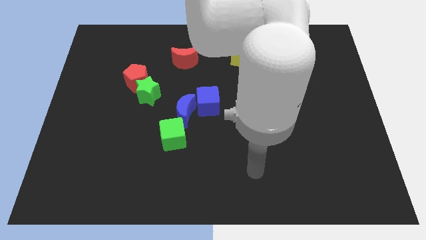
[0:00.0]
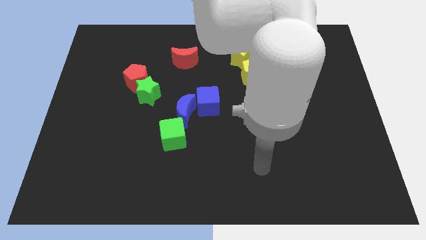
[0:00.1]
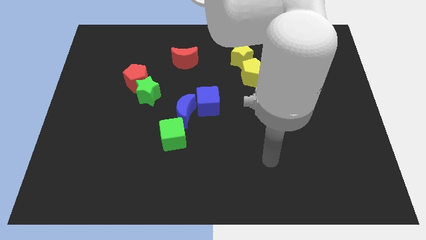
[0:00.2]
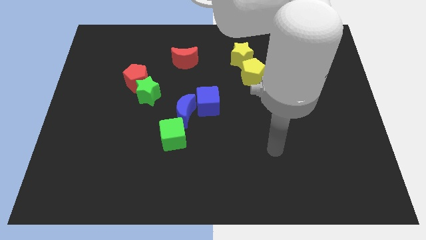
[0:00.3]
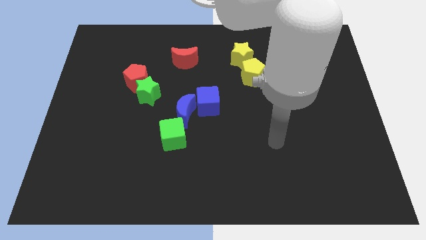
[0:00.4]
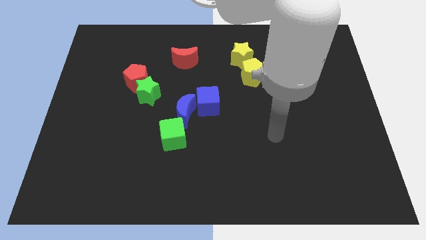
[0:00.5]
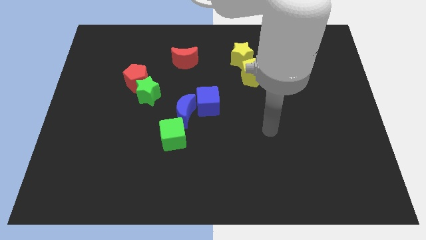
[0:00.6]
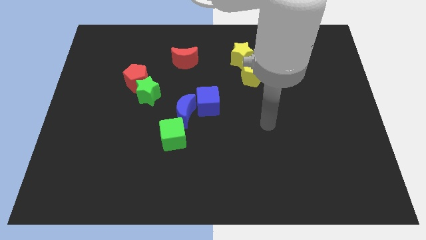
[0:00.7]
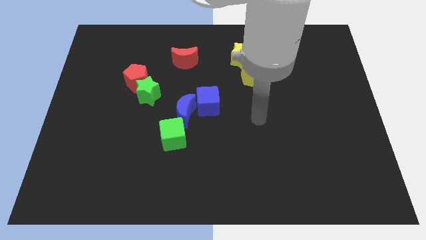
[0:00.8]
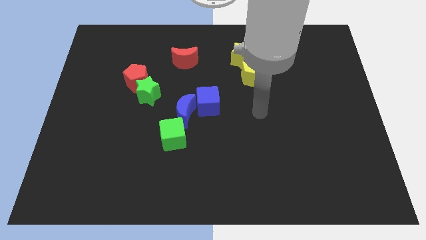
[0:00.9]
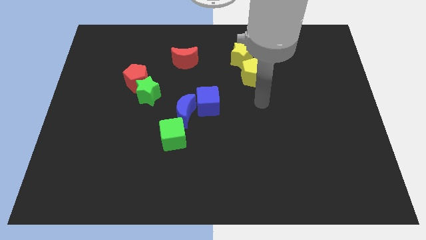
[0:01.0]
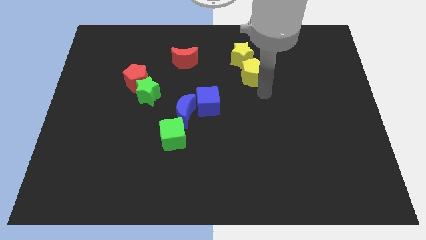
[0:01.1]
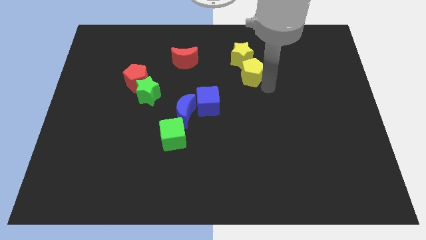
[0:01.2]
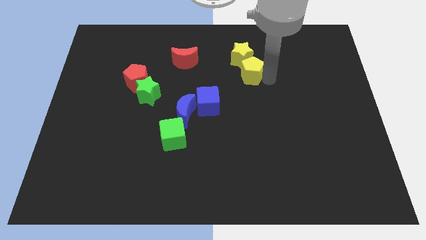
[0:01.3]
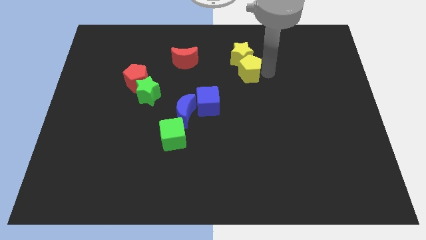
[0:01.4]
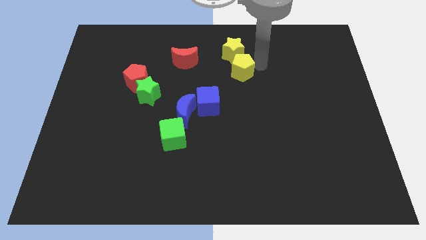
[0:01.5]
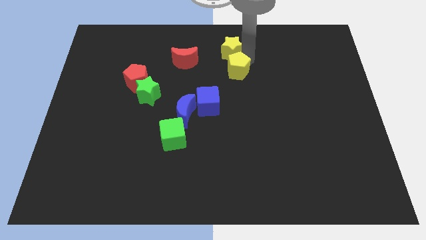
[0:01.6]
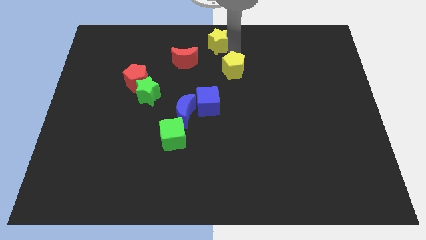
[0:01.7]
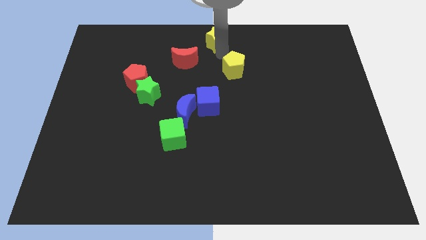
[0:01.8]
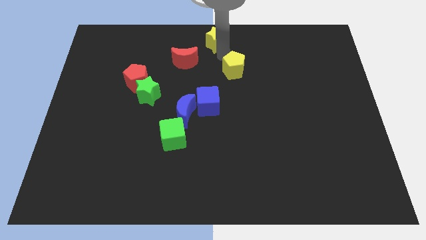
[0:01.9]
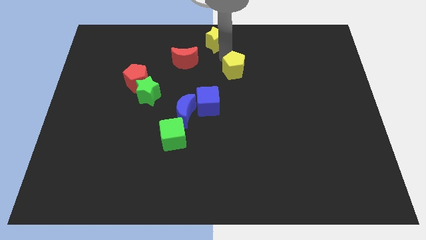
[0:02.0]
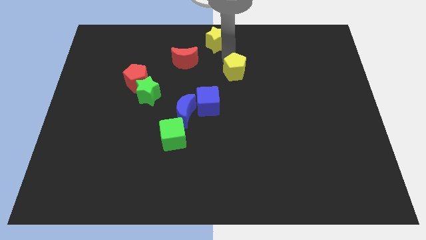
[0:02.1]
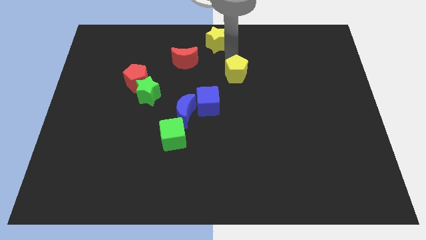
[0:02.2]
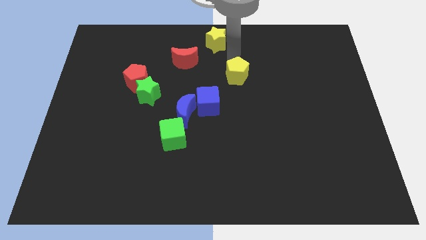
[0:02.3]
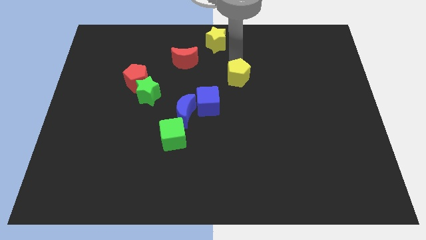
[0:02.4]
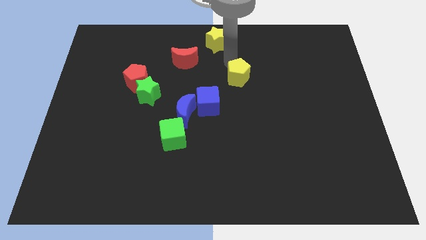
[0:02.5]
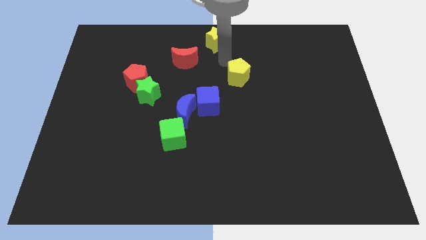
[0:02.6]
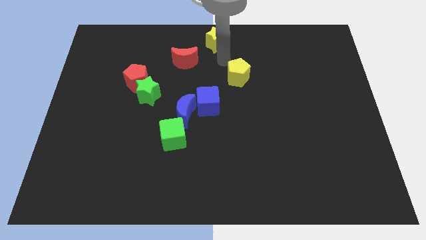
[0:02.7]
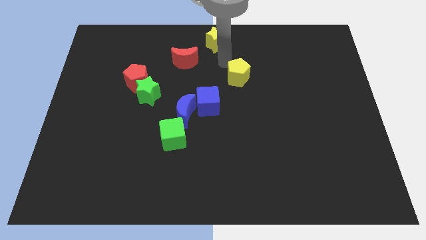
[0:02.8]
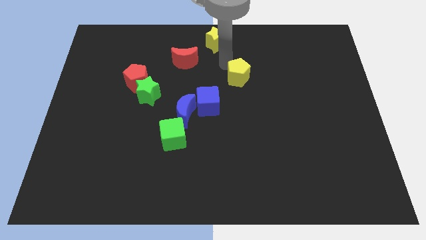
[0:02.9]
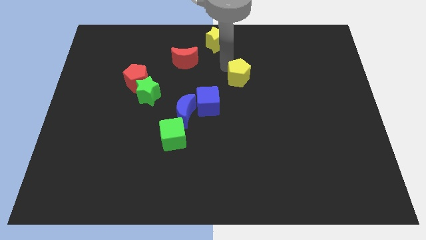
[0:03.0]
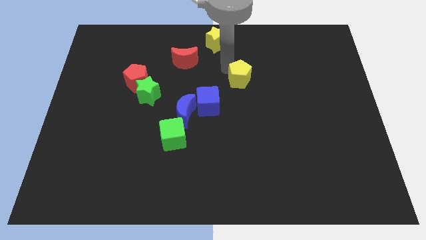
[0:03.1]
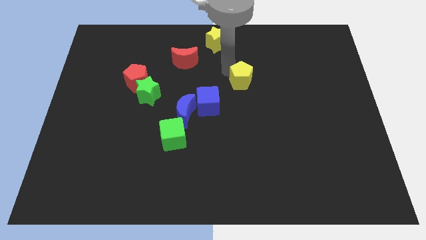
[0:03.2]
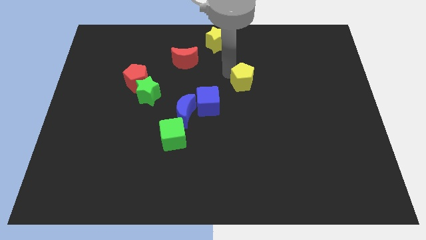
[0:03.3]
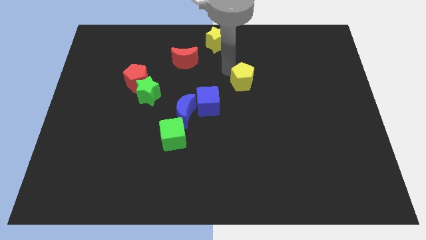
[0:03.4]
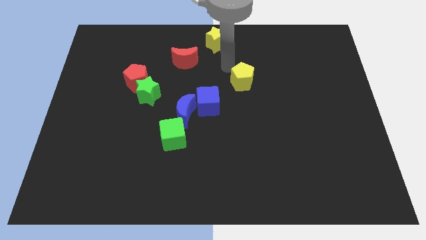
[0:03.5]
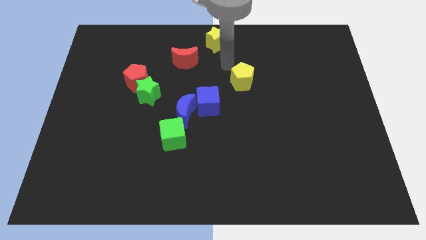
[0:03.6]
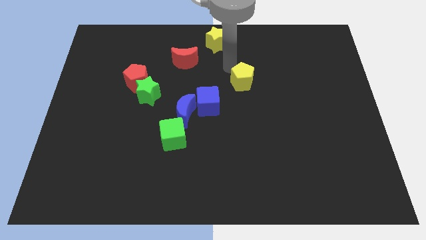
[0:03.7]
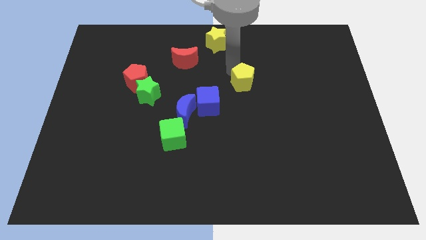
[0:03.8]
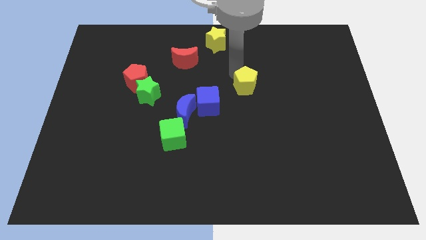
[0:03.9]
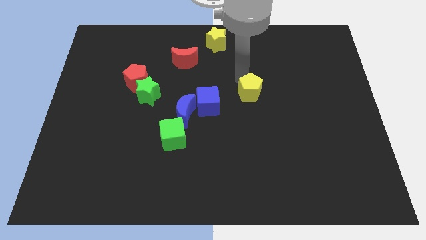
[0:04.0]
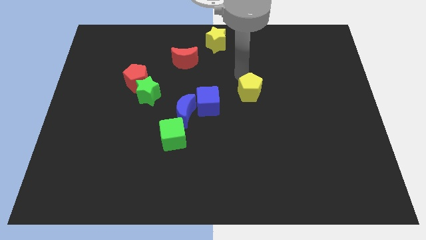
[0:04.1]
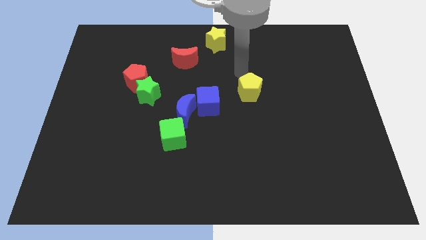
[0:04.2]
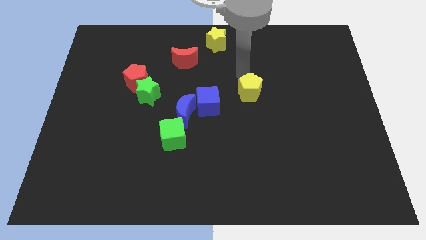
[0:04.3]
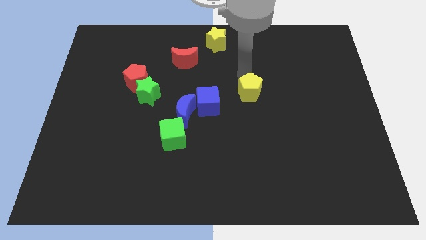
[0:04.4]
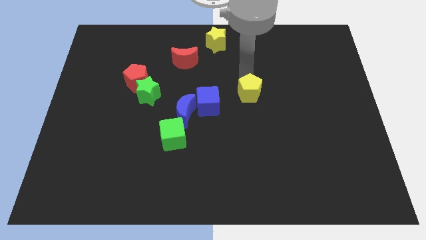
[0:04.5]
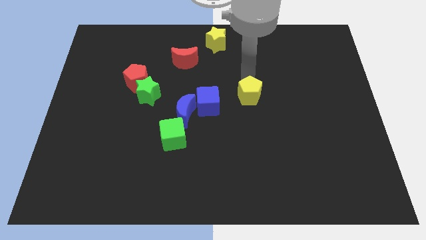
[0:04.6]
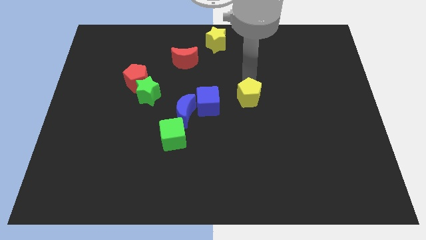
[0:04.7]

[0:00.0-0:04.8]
slightly push the yellow pentagon downwards

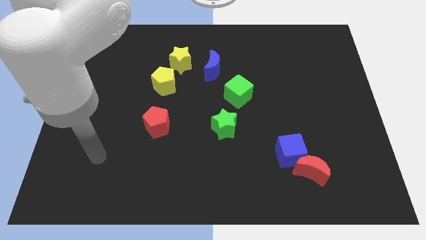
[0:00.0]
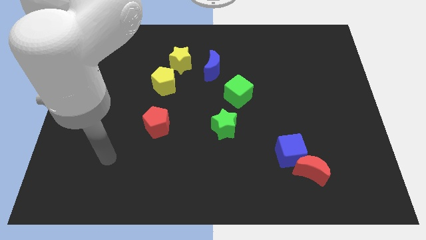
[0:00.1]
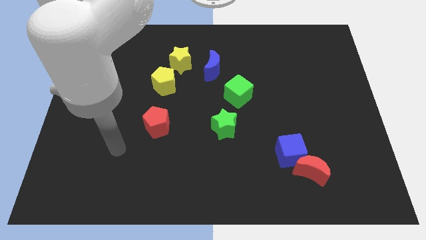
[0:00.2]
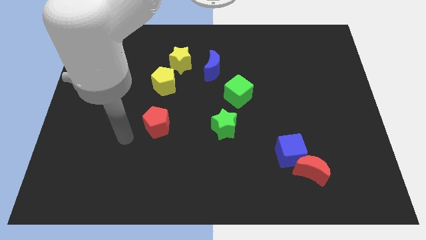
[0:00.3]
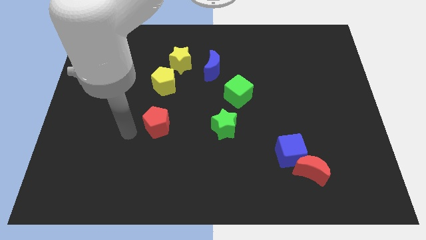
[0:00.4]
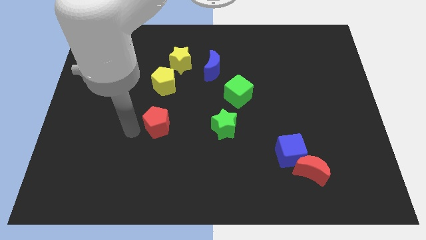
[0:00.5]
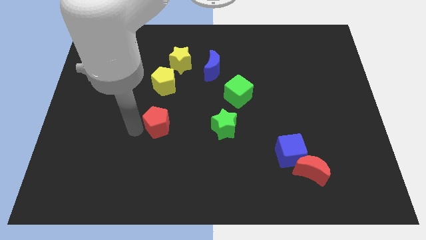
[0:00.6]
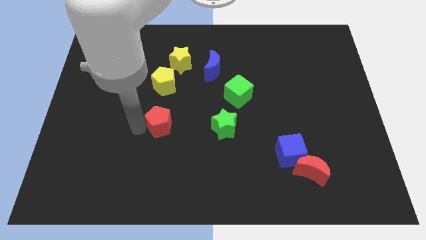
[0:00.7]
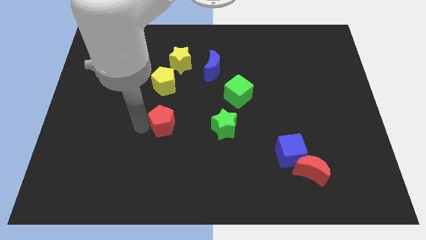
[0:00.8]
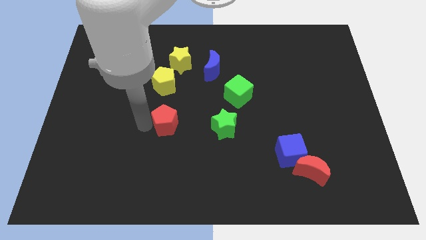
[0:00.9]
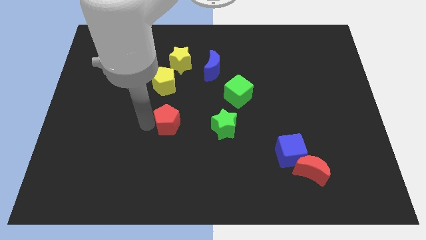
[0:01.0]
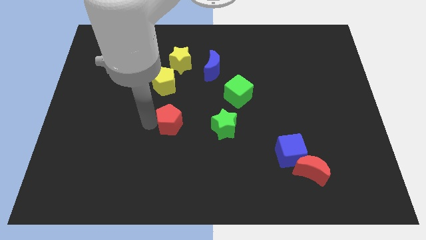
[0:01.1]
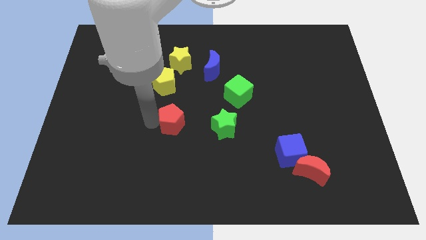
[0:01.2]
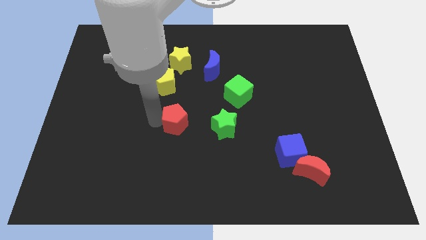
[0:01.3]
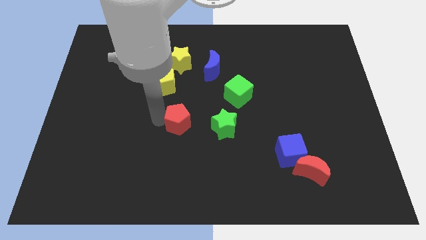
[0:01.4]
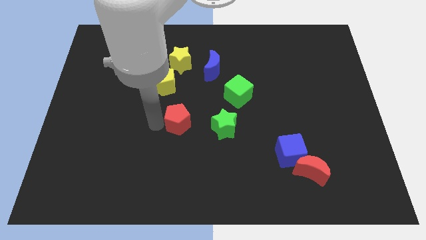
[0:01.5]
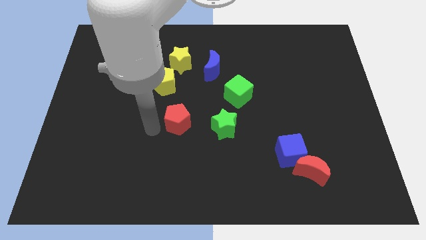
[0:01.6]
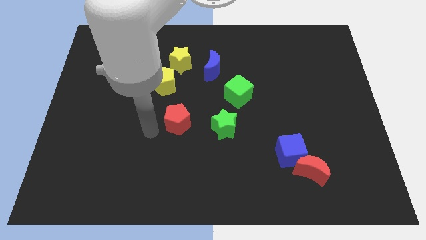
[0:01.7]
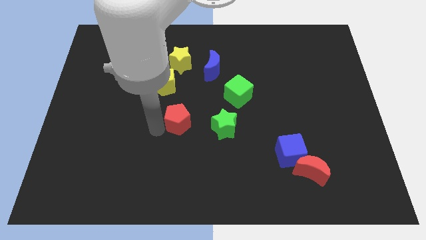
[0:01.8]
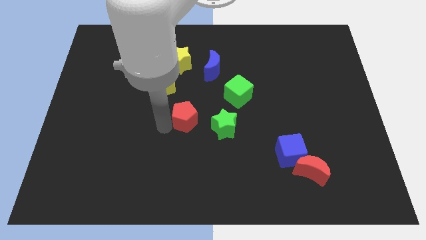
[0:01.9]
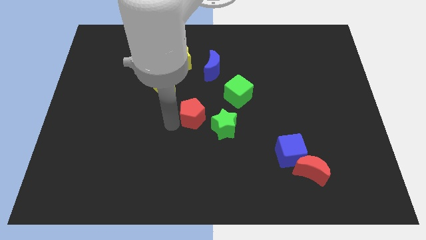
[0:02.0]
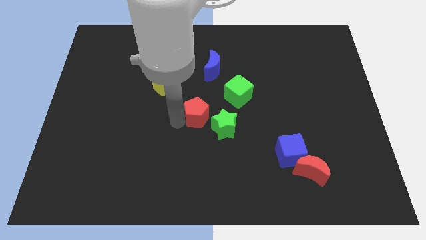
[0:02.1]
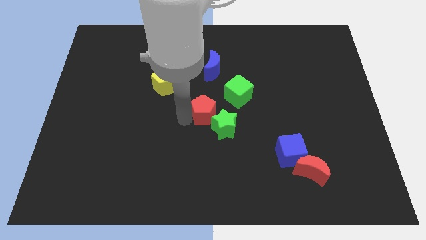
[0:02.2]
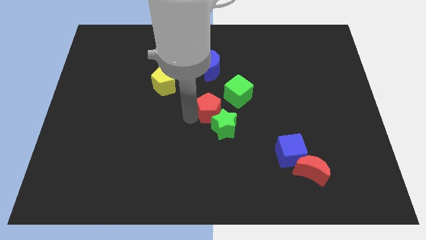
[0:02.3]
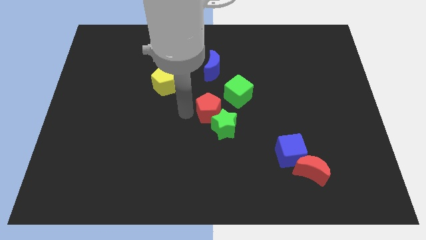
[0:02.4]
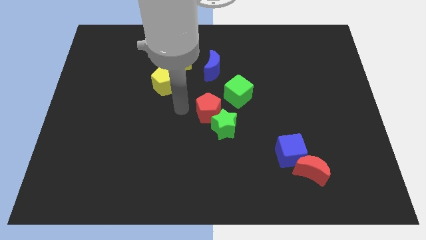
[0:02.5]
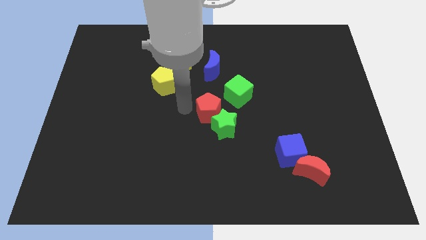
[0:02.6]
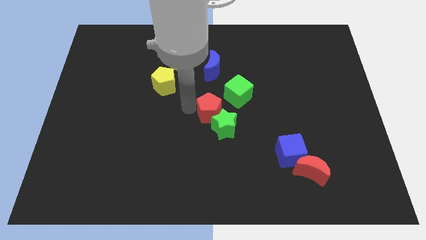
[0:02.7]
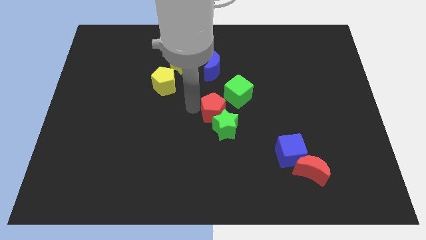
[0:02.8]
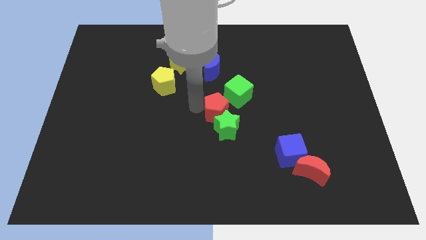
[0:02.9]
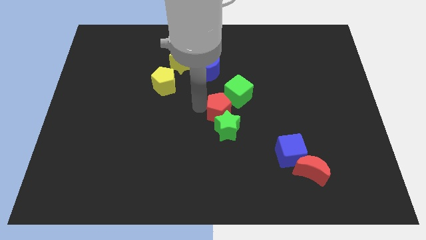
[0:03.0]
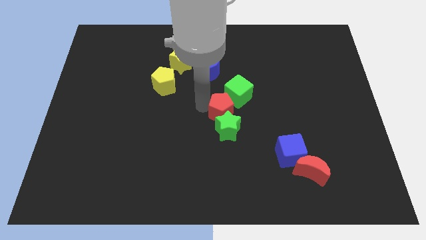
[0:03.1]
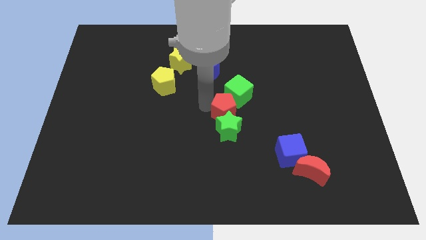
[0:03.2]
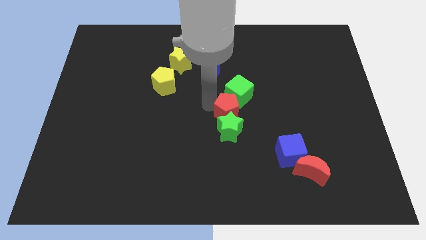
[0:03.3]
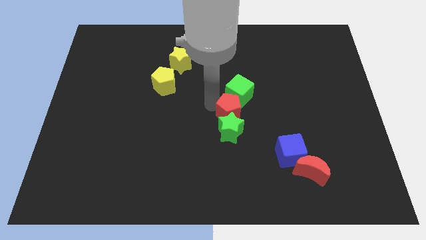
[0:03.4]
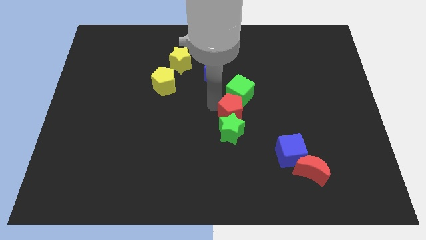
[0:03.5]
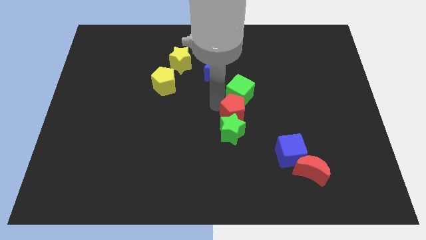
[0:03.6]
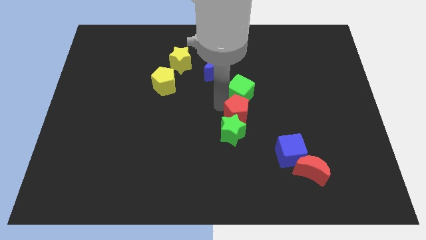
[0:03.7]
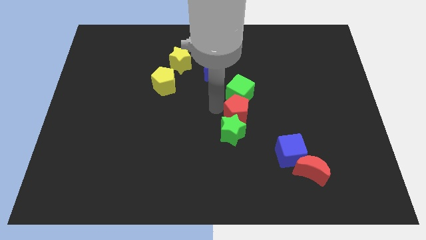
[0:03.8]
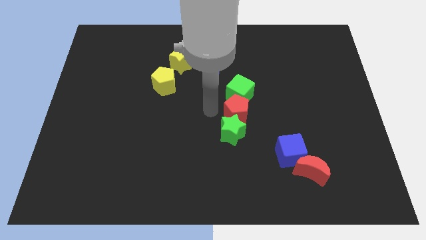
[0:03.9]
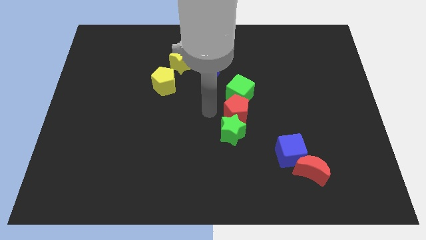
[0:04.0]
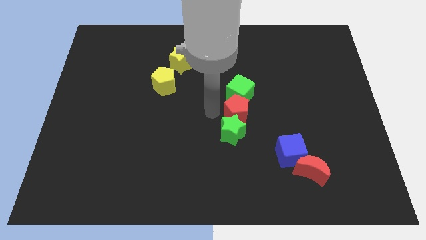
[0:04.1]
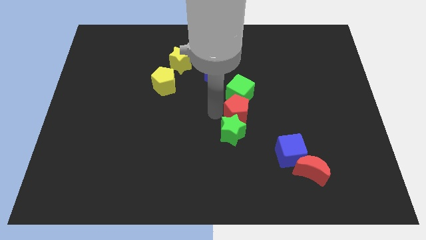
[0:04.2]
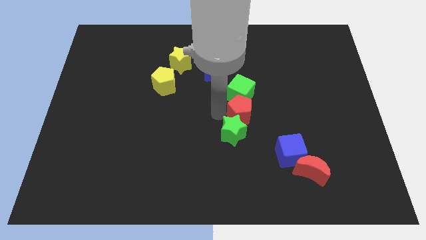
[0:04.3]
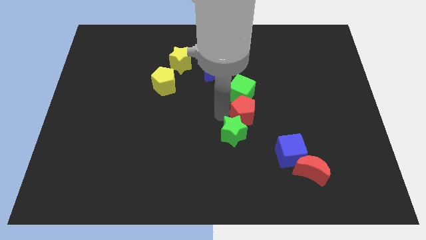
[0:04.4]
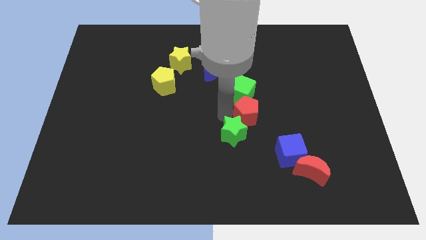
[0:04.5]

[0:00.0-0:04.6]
move the red pentagon right
